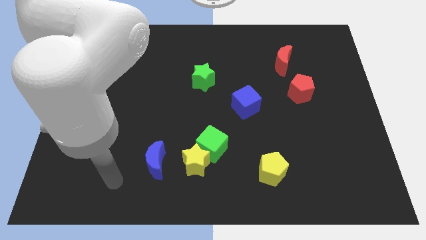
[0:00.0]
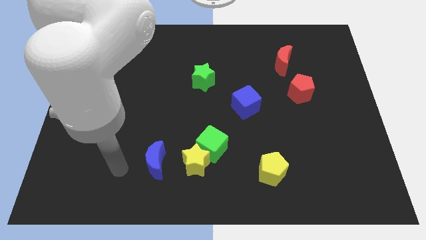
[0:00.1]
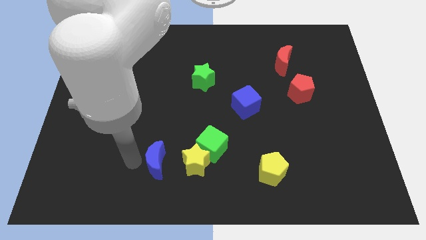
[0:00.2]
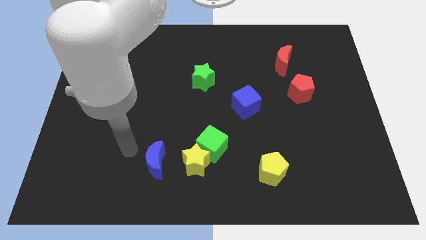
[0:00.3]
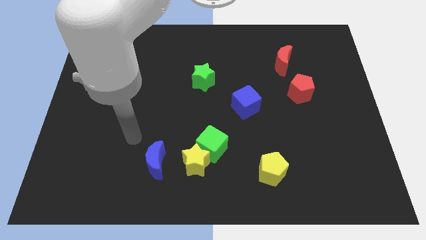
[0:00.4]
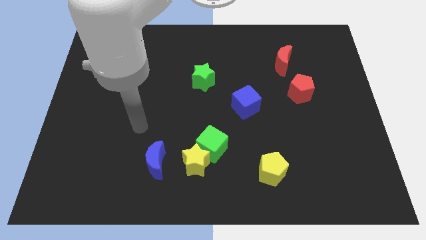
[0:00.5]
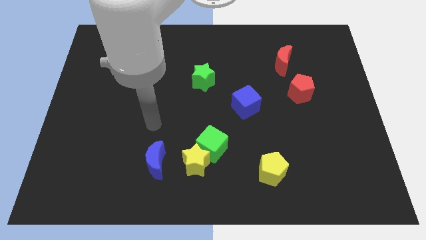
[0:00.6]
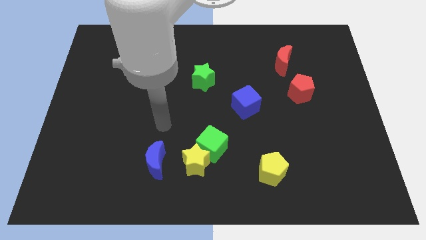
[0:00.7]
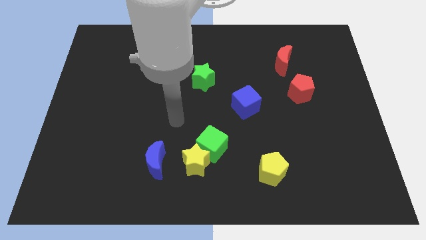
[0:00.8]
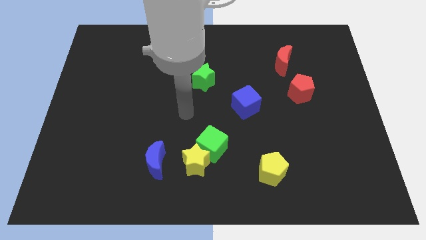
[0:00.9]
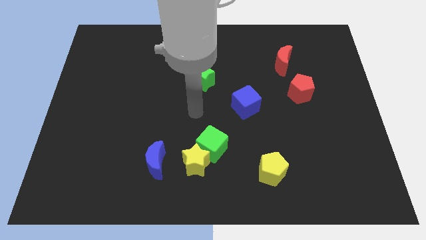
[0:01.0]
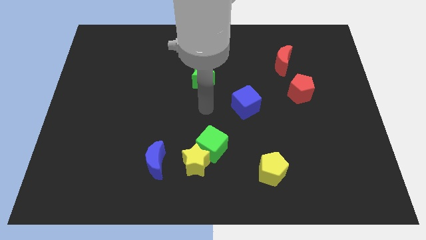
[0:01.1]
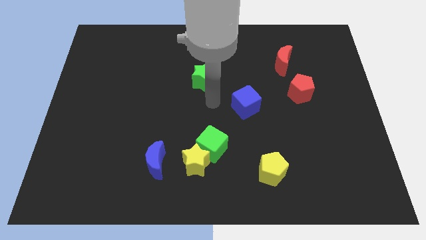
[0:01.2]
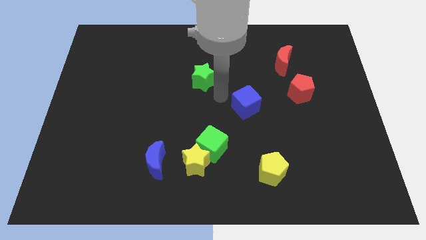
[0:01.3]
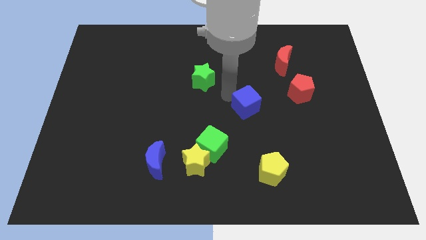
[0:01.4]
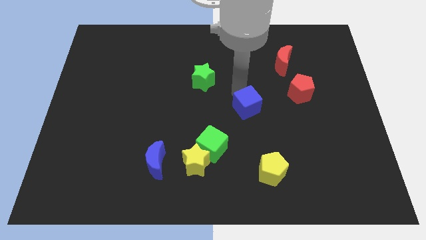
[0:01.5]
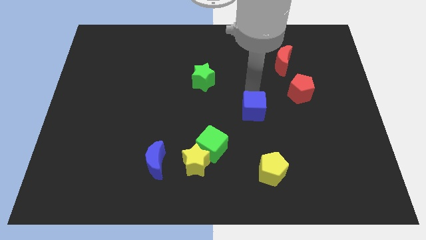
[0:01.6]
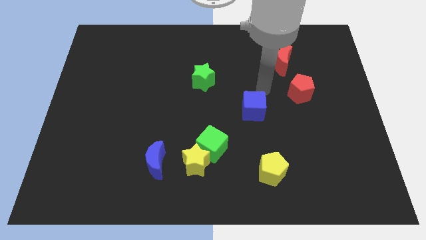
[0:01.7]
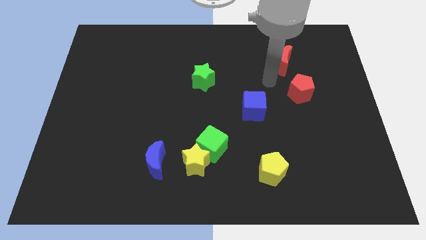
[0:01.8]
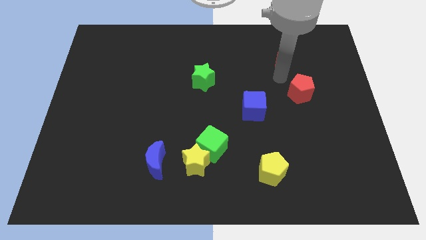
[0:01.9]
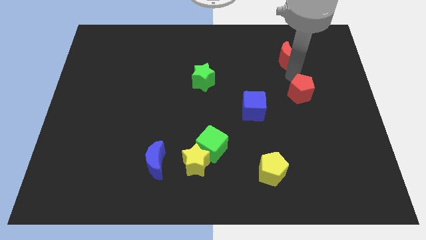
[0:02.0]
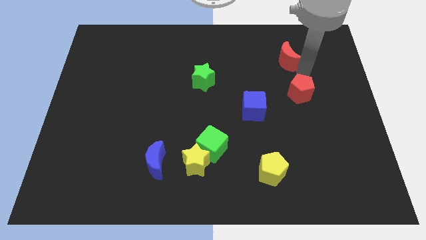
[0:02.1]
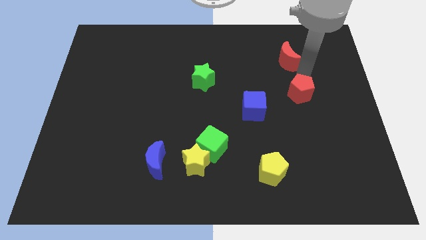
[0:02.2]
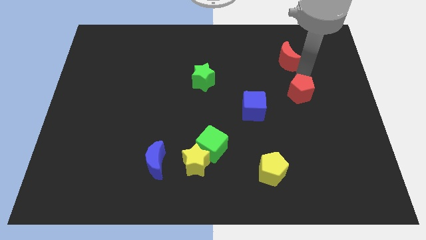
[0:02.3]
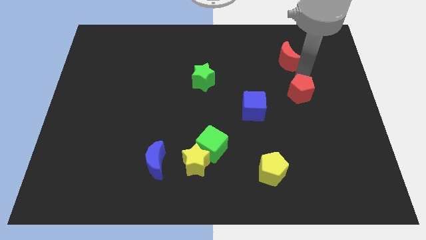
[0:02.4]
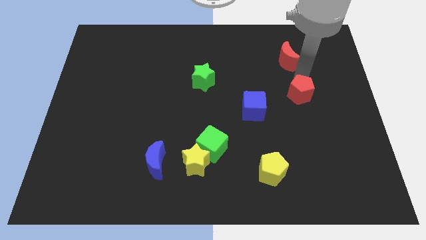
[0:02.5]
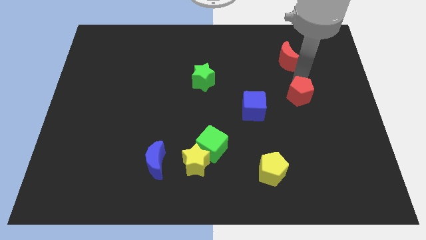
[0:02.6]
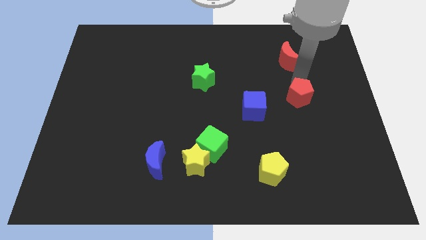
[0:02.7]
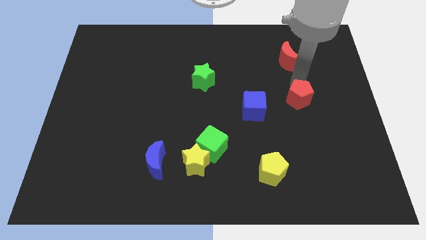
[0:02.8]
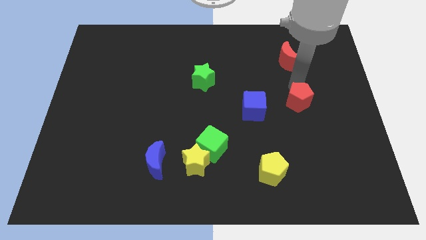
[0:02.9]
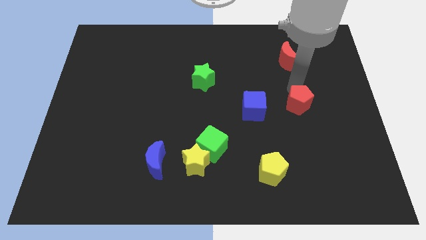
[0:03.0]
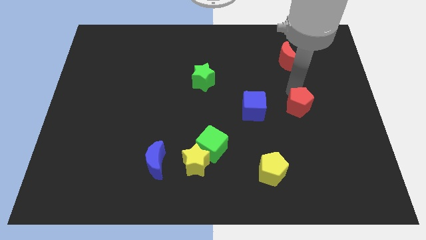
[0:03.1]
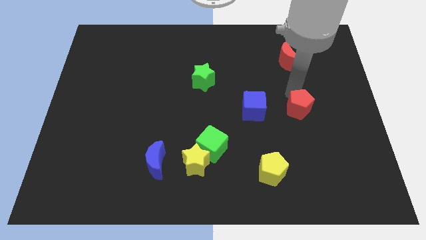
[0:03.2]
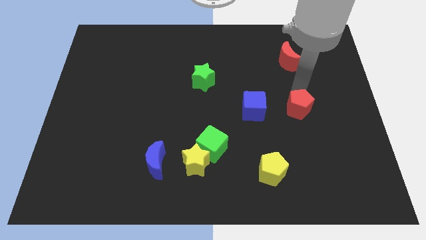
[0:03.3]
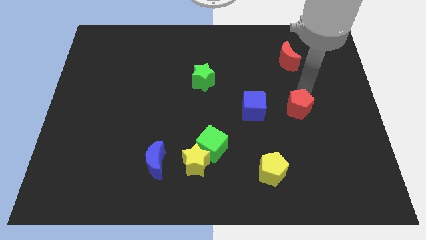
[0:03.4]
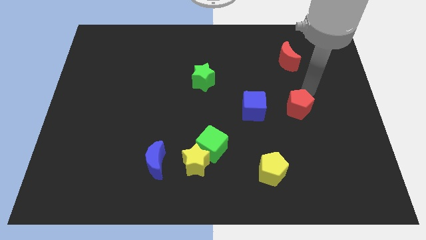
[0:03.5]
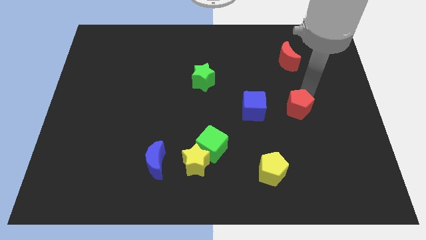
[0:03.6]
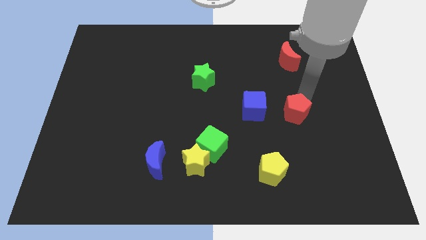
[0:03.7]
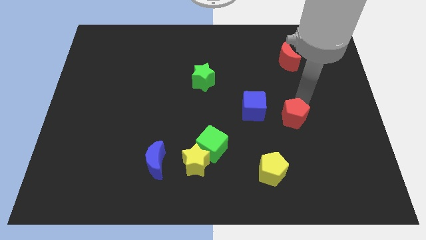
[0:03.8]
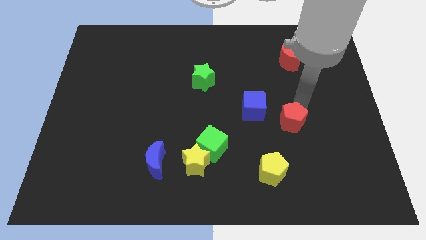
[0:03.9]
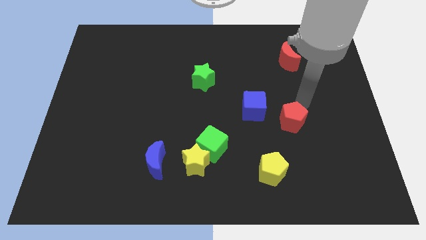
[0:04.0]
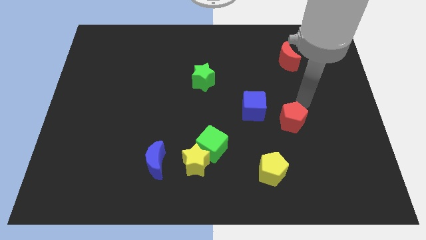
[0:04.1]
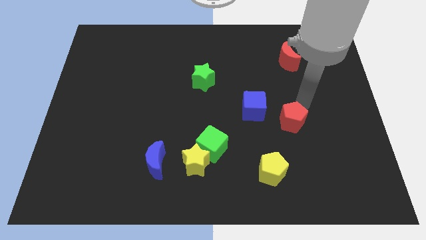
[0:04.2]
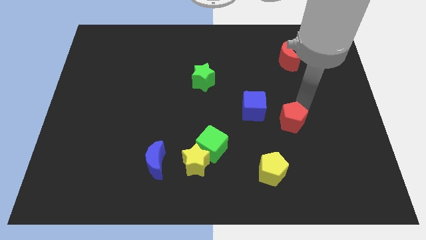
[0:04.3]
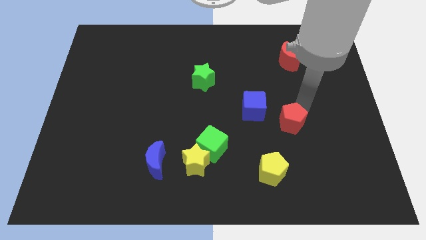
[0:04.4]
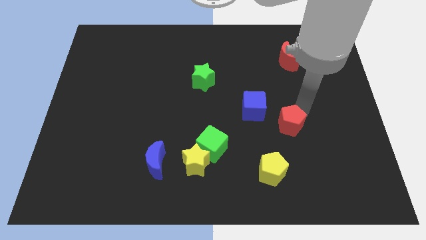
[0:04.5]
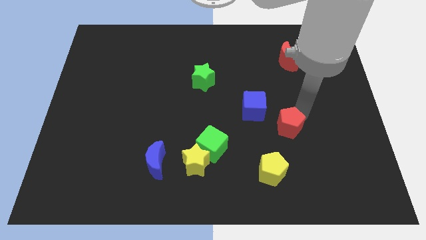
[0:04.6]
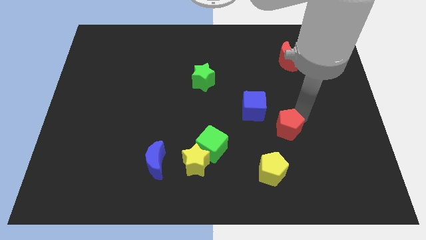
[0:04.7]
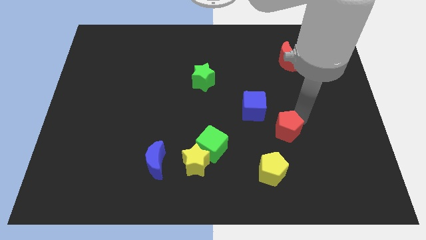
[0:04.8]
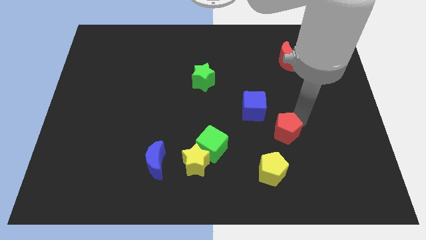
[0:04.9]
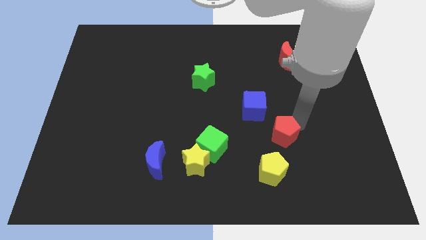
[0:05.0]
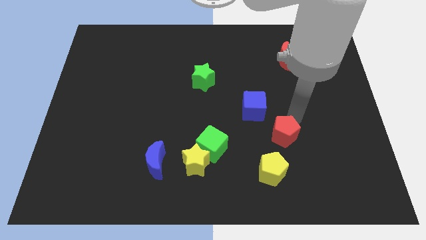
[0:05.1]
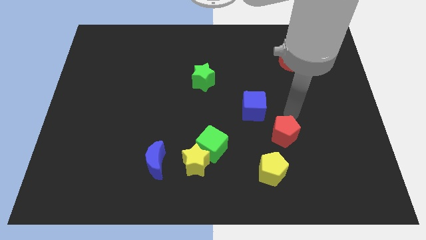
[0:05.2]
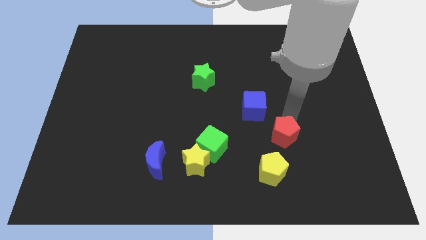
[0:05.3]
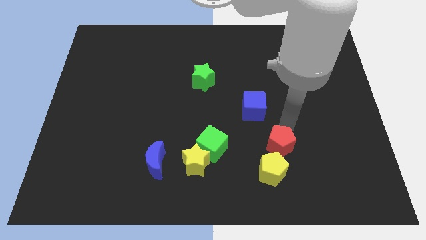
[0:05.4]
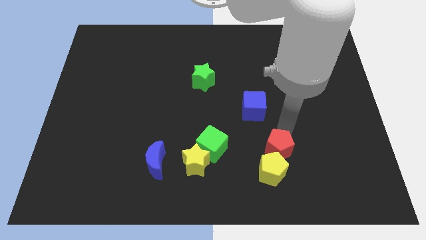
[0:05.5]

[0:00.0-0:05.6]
slide the red pentagon to the yellow pentagon

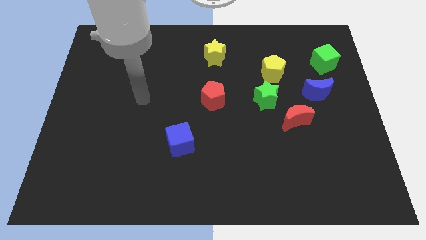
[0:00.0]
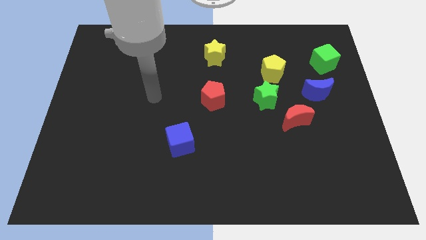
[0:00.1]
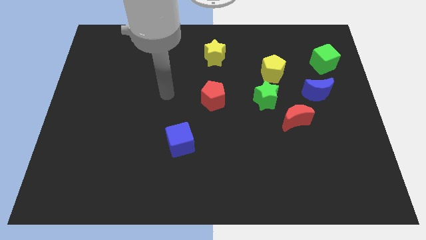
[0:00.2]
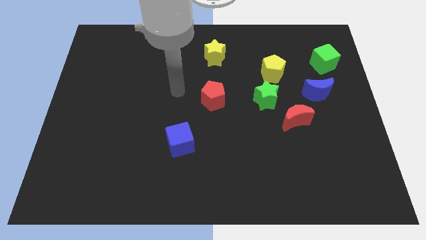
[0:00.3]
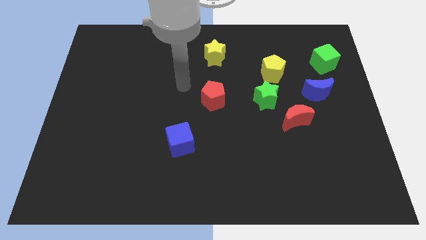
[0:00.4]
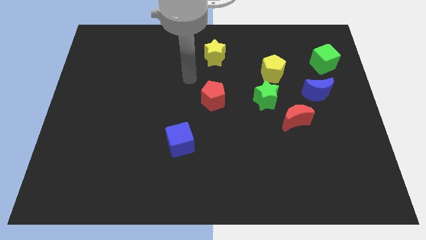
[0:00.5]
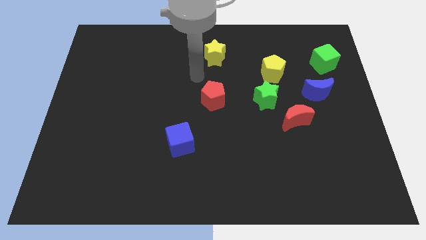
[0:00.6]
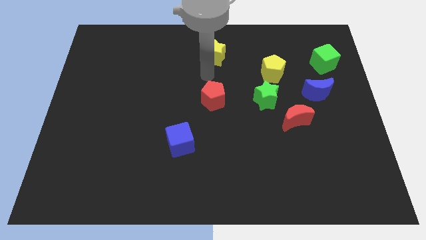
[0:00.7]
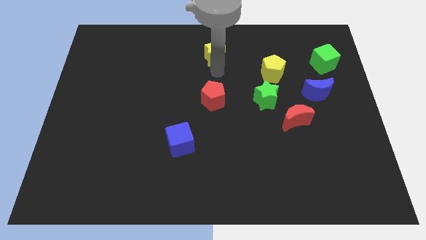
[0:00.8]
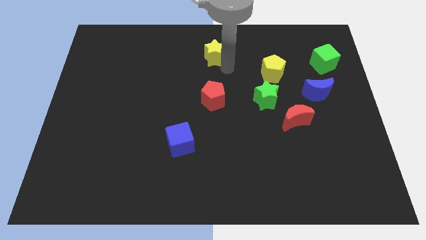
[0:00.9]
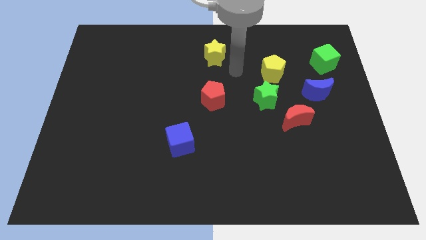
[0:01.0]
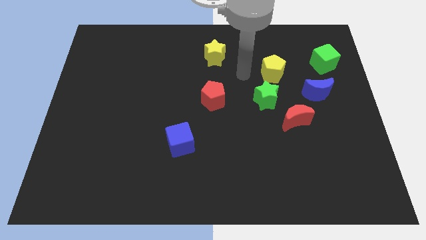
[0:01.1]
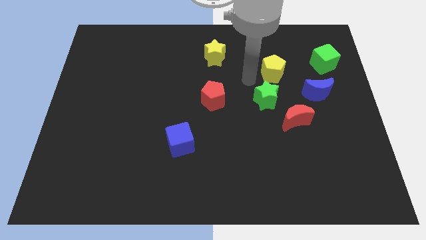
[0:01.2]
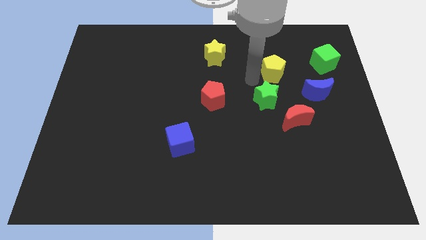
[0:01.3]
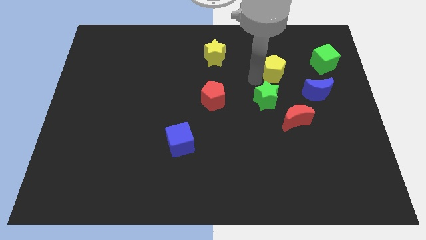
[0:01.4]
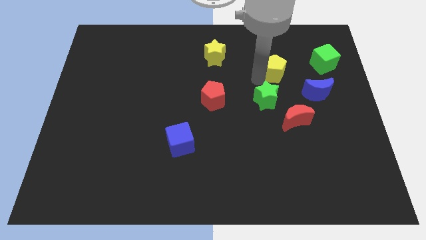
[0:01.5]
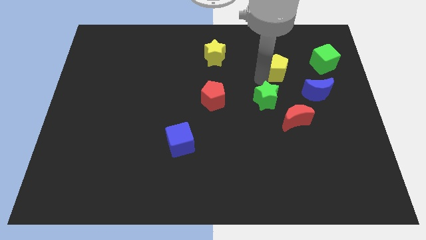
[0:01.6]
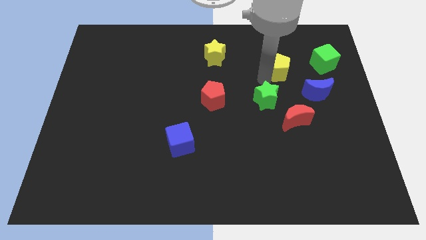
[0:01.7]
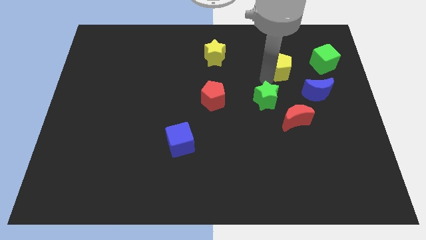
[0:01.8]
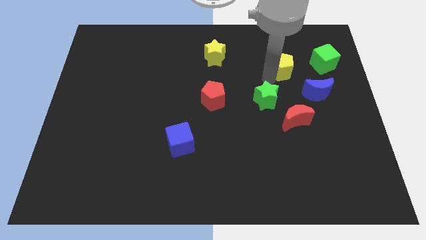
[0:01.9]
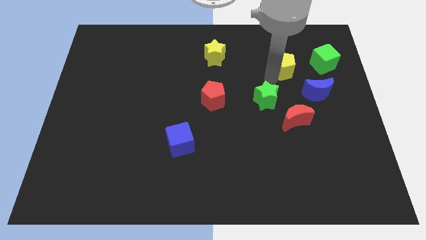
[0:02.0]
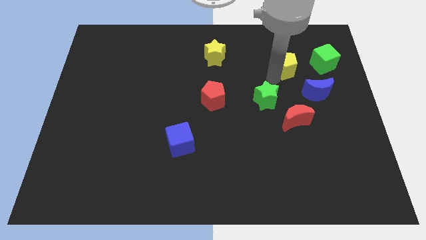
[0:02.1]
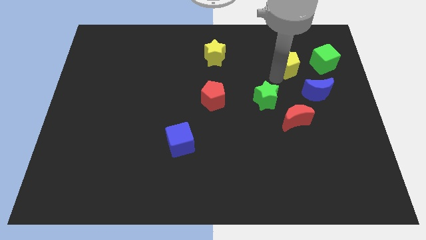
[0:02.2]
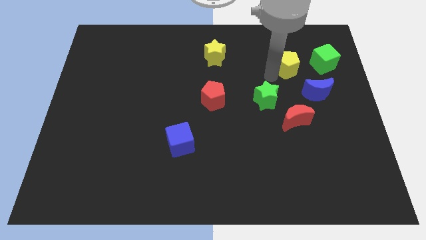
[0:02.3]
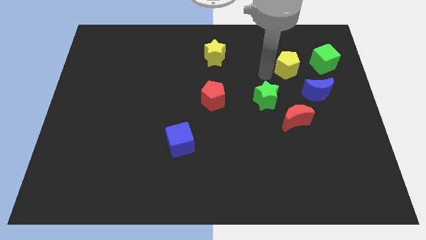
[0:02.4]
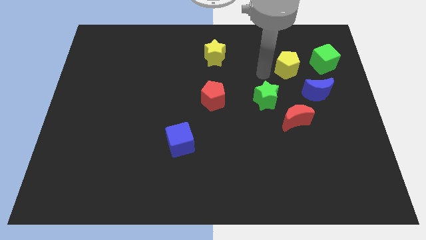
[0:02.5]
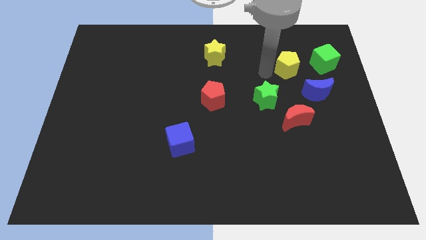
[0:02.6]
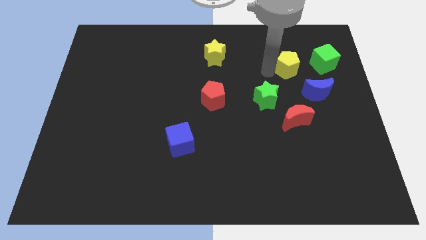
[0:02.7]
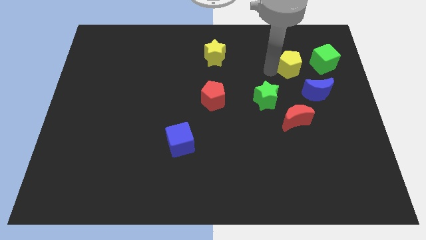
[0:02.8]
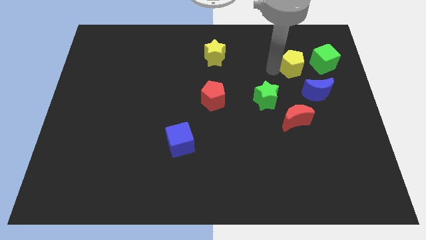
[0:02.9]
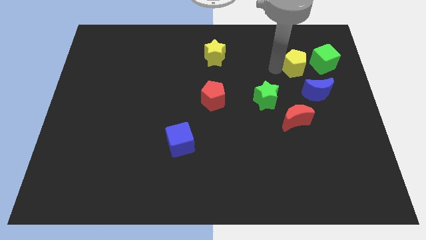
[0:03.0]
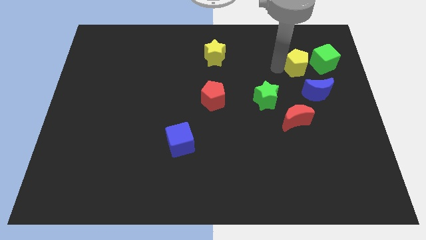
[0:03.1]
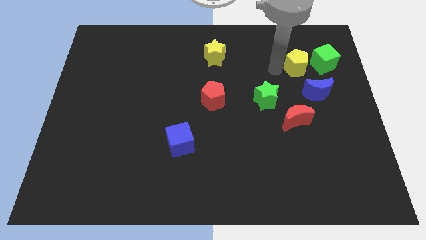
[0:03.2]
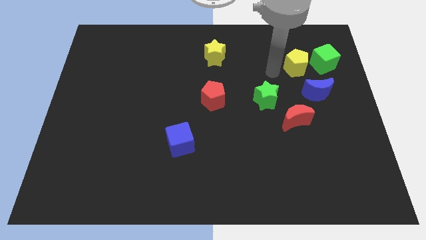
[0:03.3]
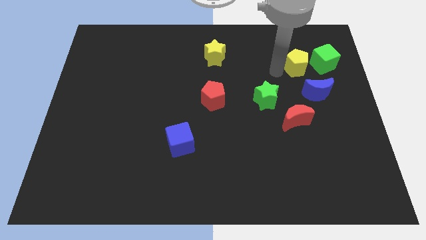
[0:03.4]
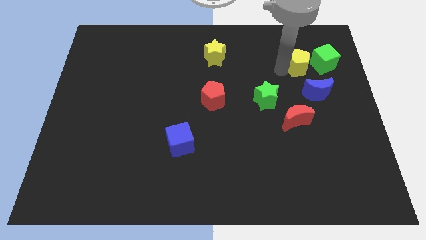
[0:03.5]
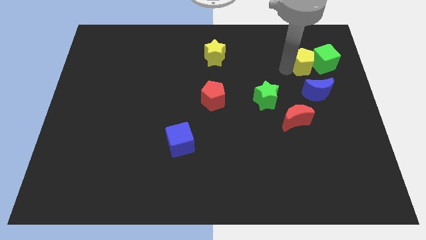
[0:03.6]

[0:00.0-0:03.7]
push the yellow pentagon next to the green cube
